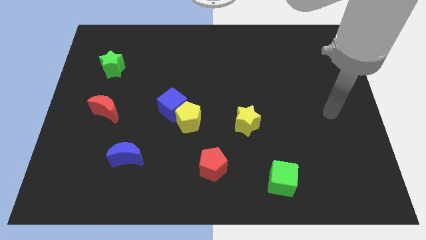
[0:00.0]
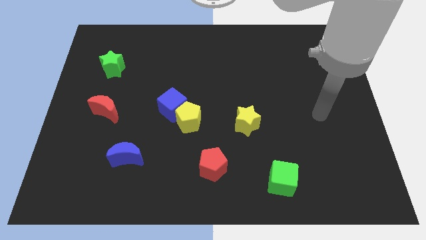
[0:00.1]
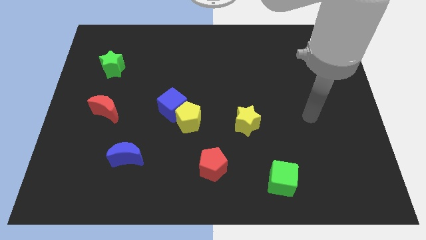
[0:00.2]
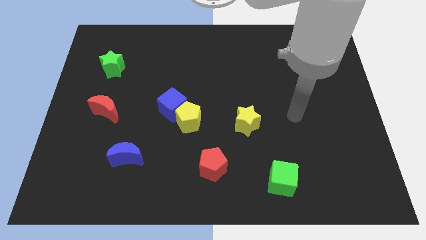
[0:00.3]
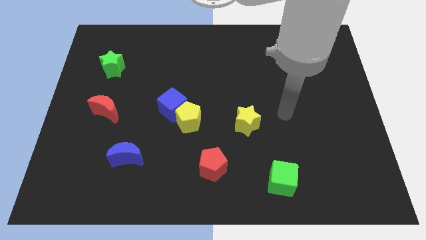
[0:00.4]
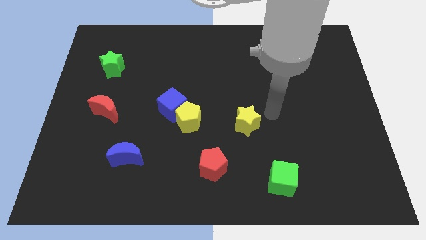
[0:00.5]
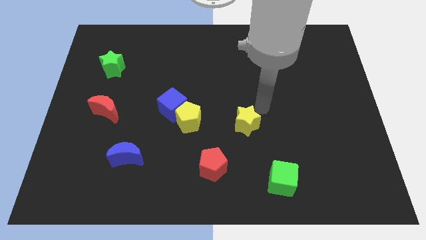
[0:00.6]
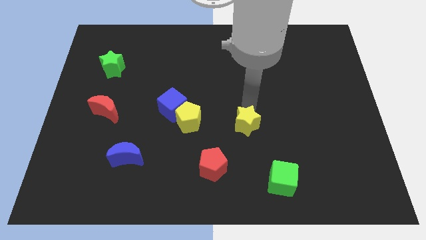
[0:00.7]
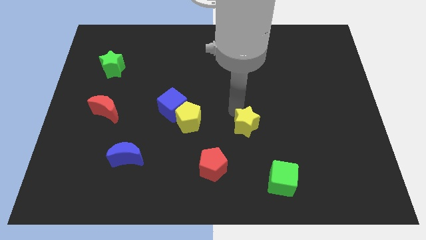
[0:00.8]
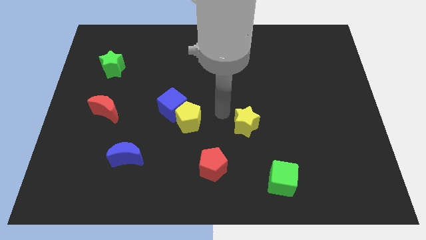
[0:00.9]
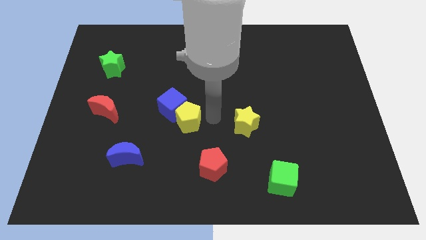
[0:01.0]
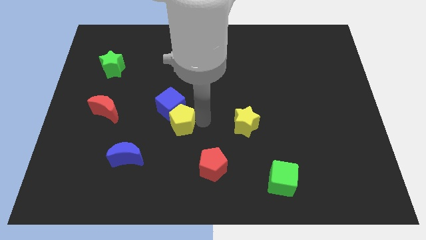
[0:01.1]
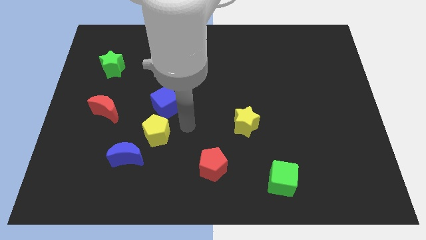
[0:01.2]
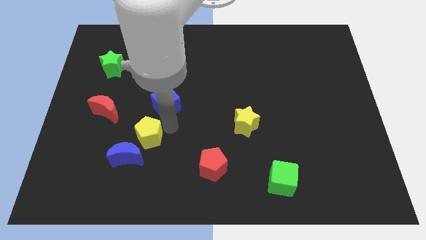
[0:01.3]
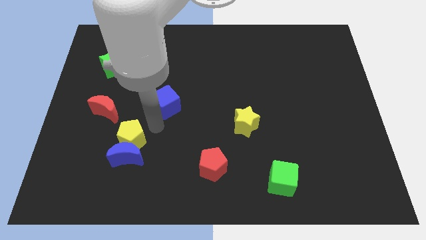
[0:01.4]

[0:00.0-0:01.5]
move the blue cube away from the yellow pentagon

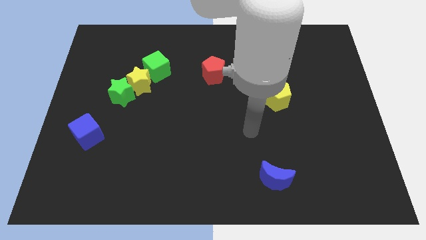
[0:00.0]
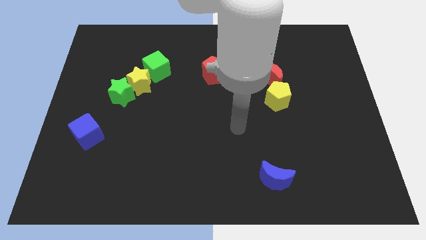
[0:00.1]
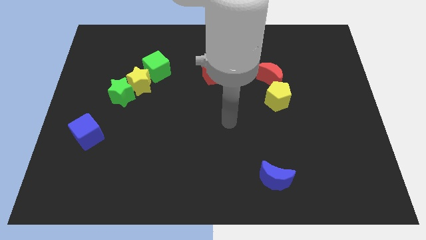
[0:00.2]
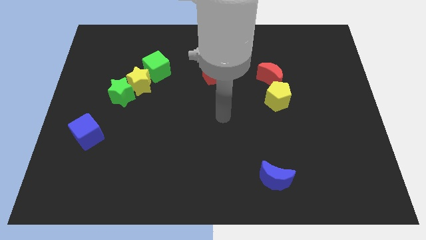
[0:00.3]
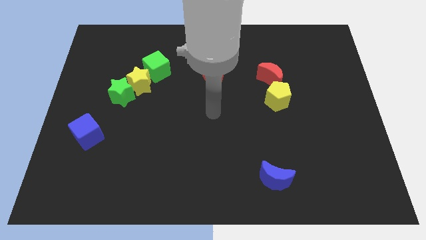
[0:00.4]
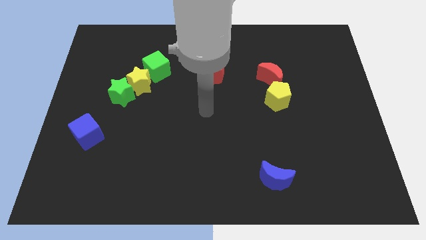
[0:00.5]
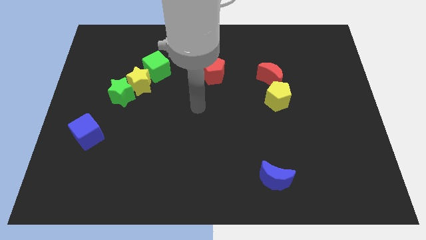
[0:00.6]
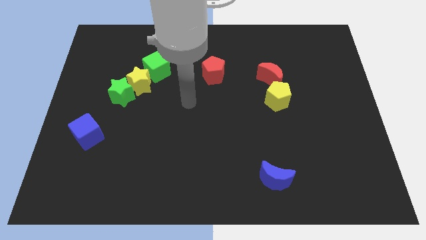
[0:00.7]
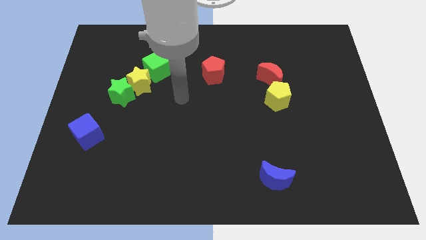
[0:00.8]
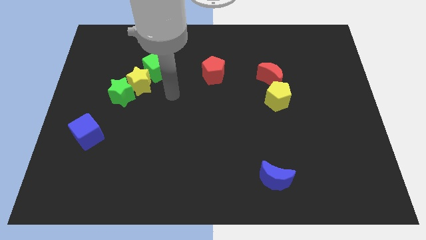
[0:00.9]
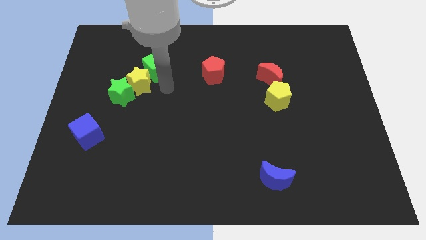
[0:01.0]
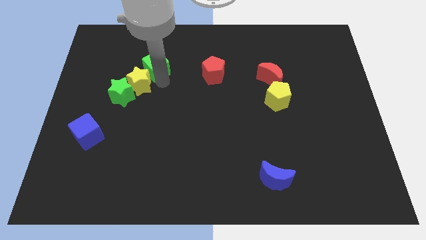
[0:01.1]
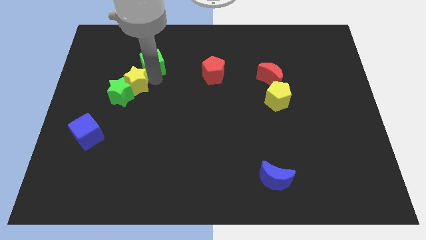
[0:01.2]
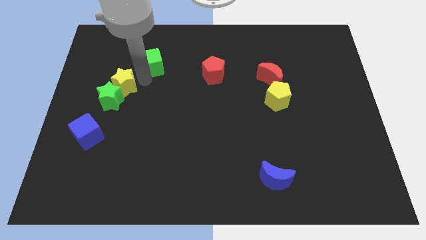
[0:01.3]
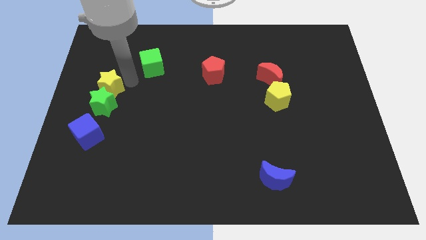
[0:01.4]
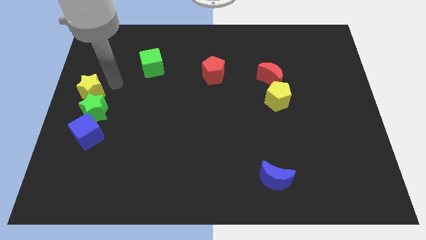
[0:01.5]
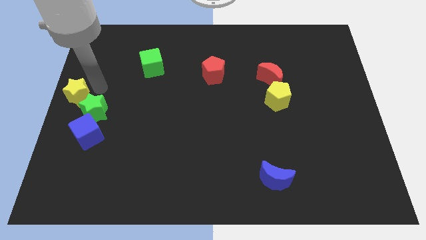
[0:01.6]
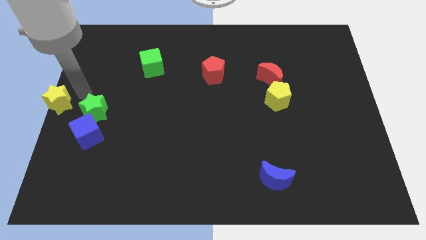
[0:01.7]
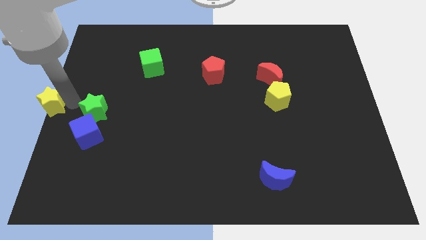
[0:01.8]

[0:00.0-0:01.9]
separate the green star from the yellow star

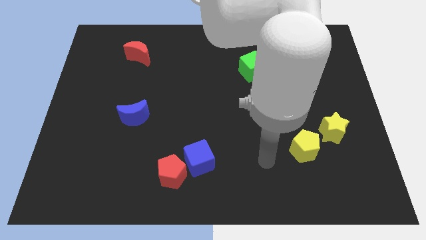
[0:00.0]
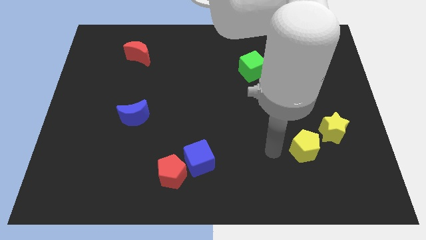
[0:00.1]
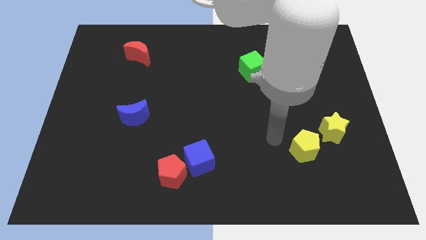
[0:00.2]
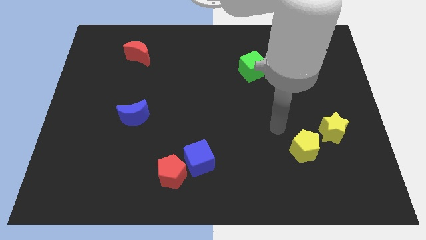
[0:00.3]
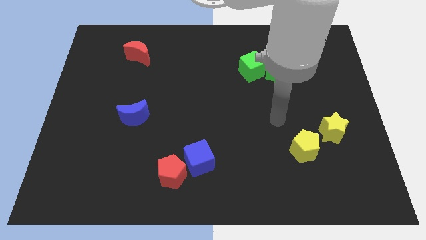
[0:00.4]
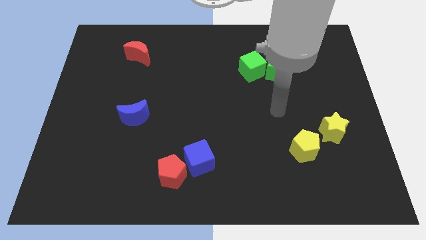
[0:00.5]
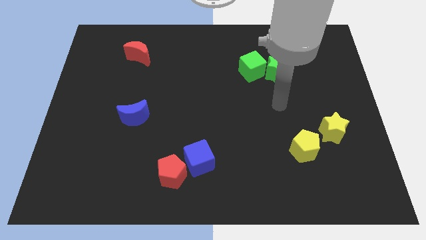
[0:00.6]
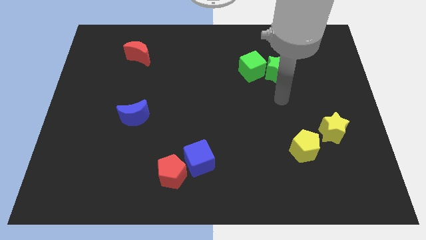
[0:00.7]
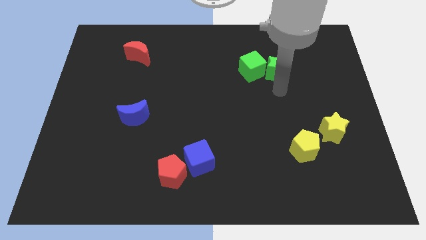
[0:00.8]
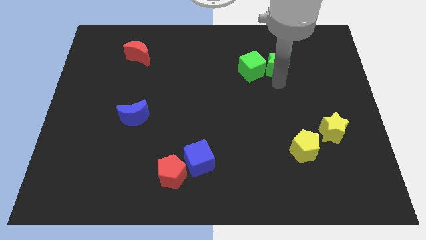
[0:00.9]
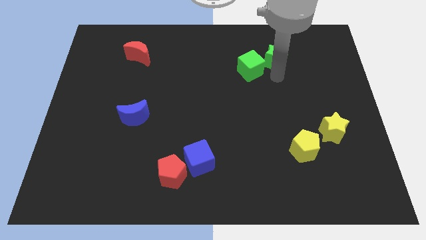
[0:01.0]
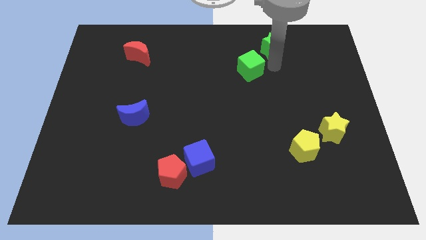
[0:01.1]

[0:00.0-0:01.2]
pull the green cube apart from the green star

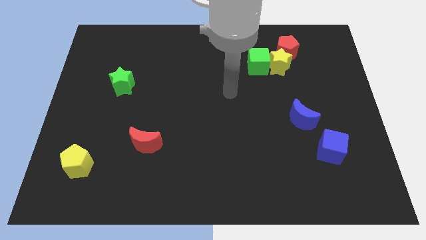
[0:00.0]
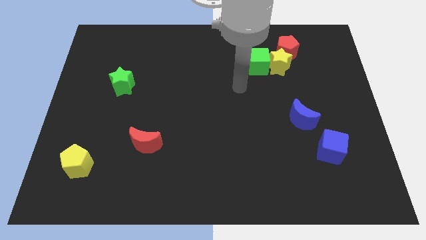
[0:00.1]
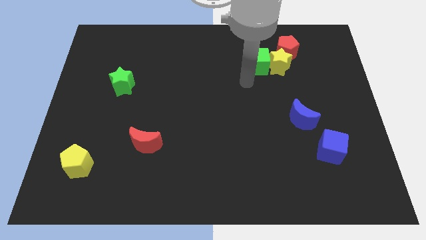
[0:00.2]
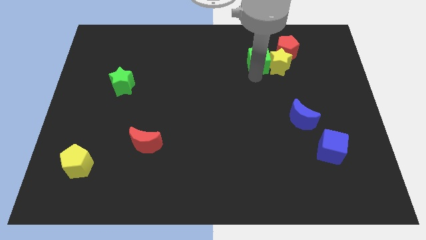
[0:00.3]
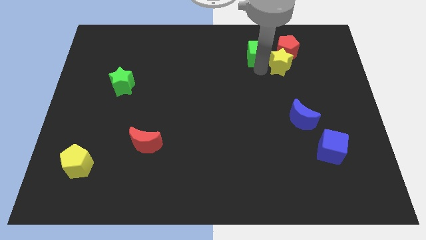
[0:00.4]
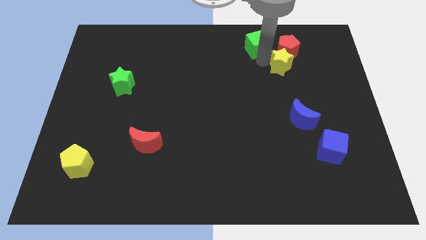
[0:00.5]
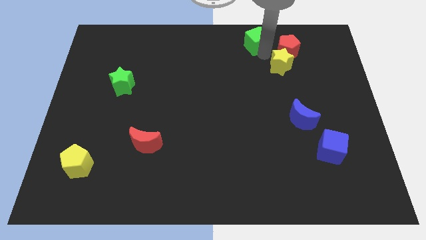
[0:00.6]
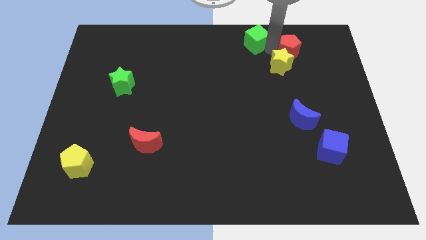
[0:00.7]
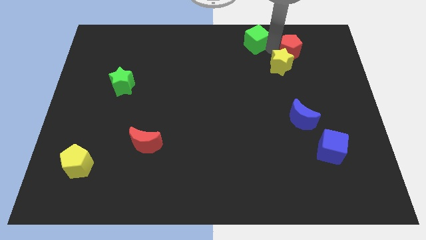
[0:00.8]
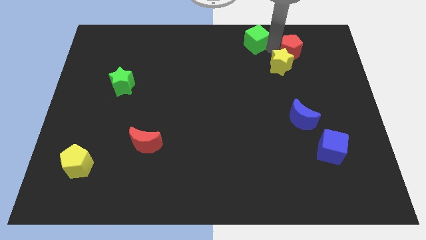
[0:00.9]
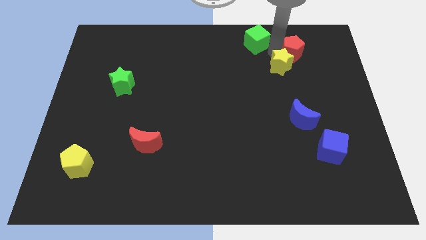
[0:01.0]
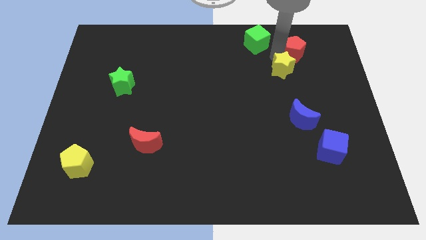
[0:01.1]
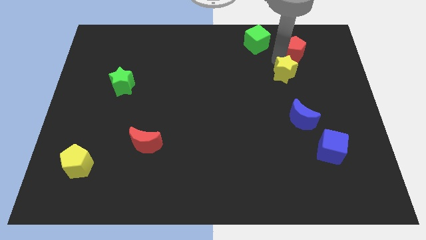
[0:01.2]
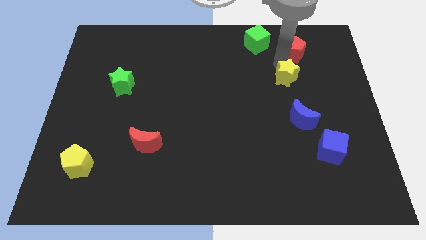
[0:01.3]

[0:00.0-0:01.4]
move the yellow star away from the green cube and red pentagon

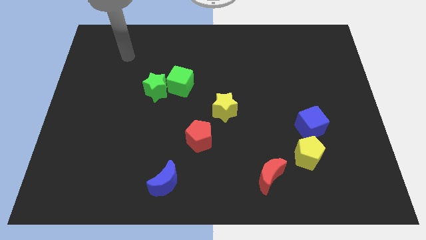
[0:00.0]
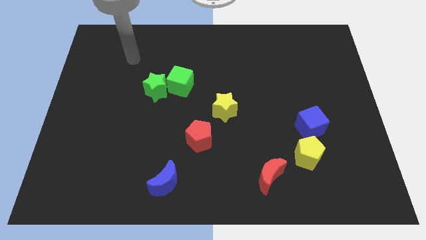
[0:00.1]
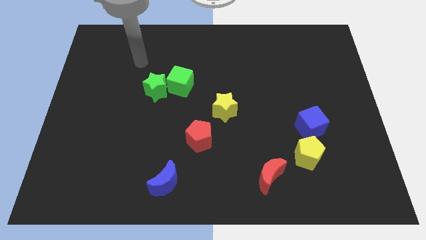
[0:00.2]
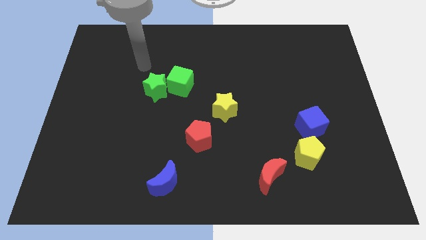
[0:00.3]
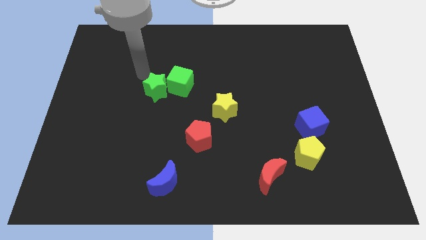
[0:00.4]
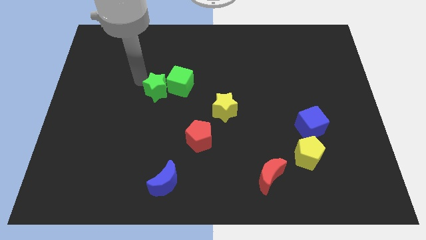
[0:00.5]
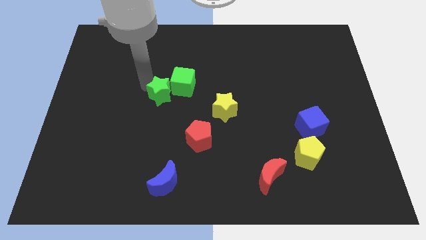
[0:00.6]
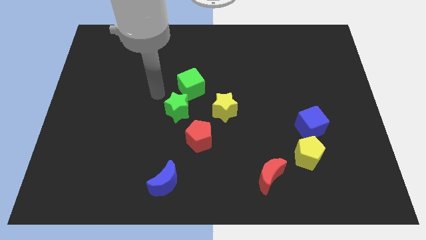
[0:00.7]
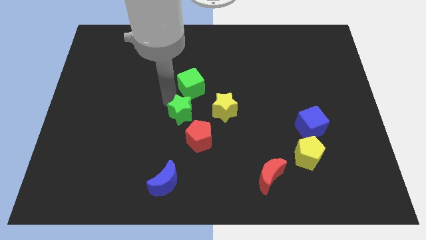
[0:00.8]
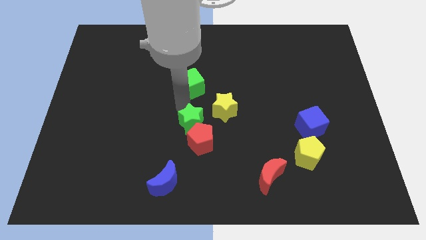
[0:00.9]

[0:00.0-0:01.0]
move the green cube away from the green star

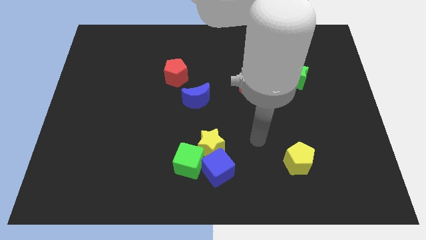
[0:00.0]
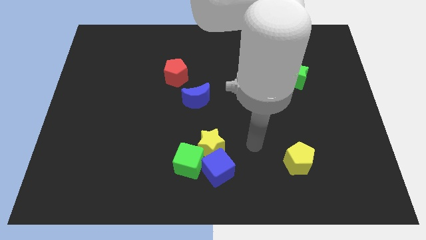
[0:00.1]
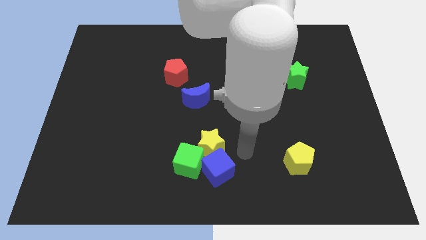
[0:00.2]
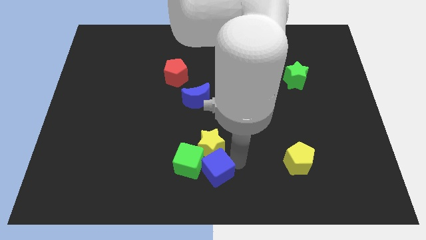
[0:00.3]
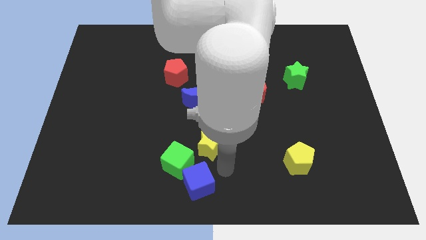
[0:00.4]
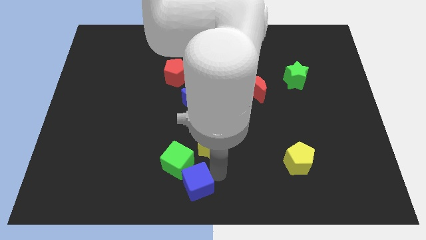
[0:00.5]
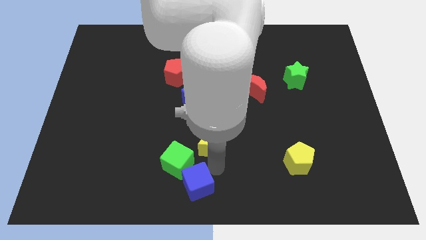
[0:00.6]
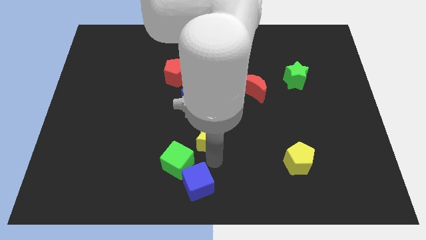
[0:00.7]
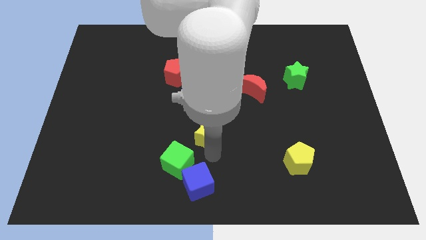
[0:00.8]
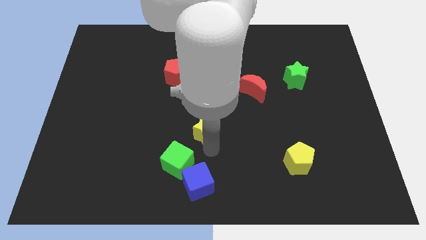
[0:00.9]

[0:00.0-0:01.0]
pull the yellow star apart from the blue cube and green cube

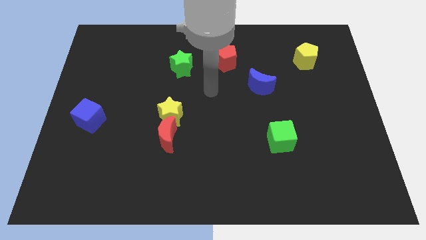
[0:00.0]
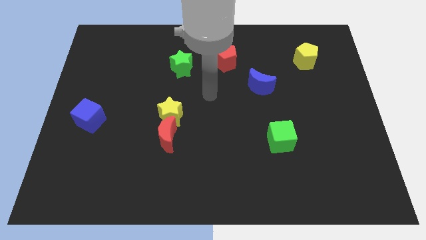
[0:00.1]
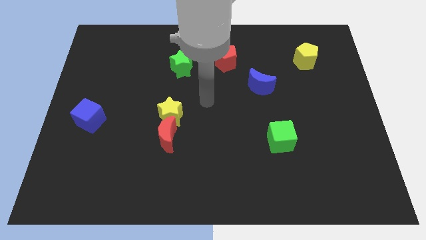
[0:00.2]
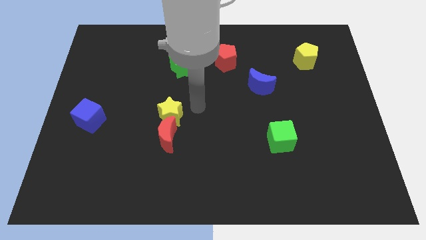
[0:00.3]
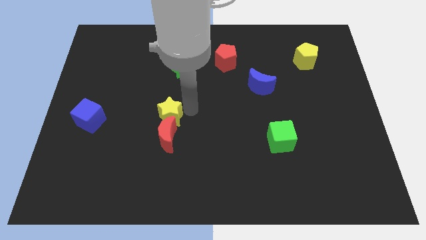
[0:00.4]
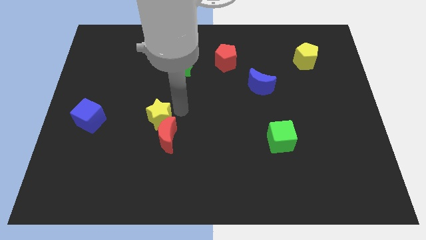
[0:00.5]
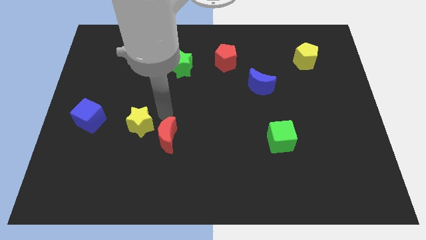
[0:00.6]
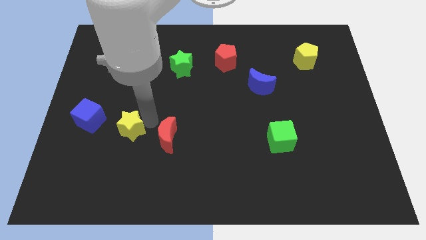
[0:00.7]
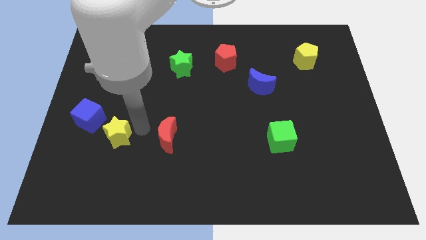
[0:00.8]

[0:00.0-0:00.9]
separate the red moon from the yellow star

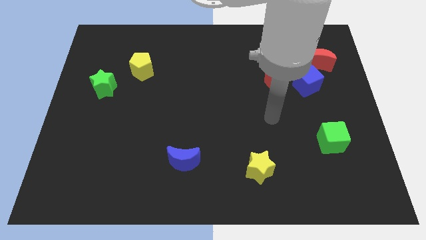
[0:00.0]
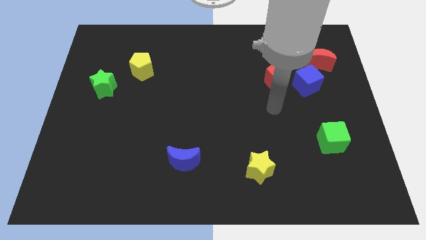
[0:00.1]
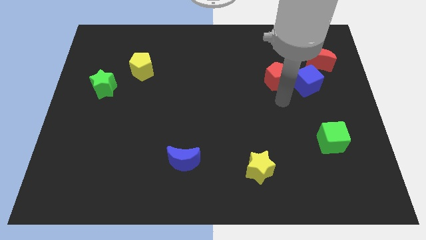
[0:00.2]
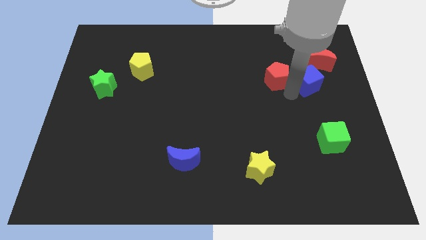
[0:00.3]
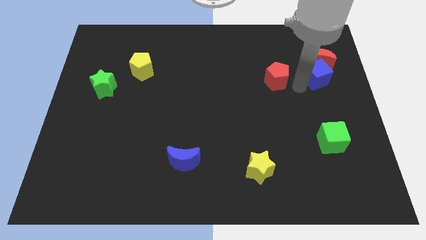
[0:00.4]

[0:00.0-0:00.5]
move the red pentagon away from the blue cube
